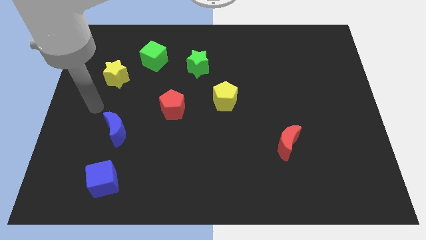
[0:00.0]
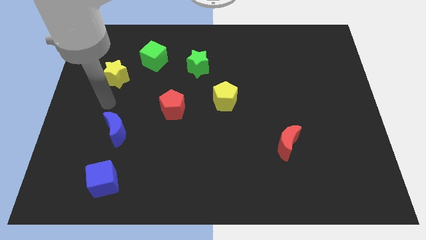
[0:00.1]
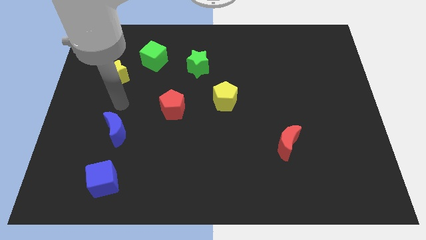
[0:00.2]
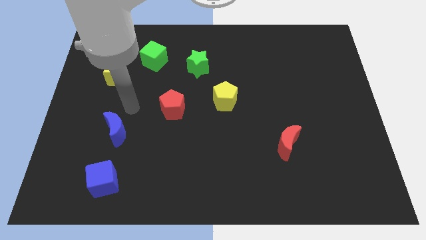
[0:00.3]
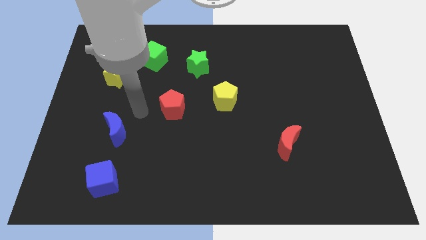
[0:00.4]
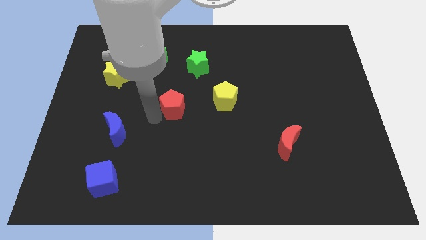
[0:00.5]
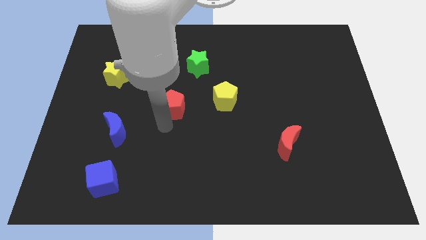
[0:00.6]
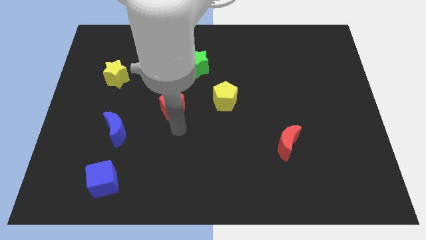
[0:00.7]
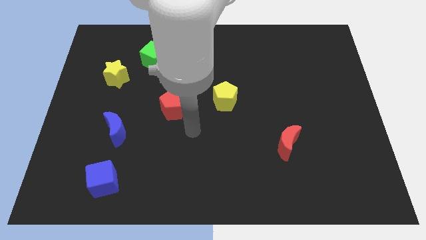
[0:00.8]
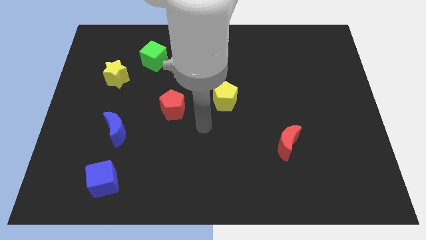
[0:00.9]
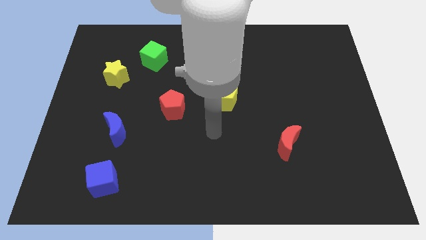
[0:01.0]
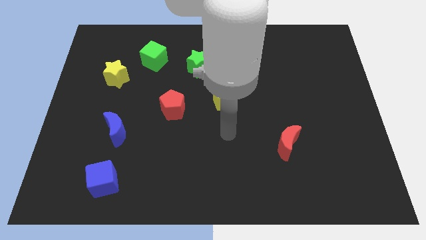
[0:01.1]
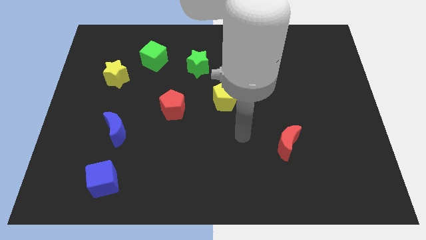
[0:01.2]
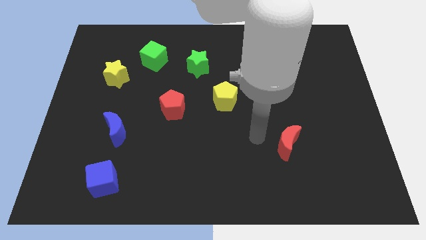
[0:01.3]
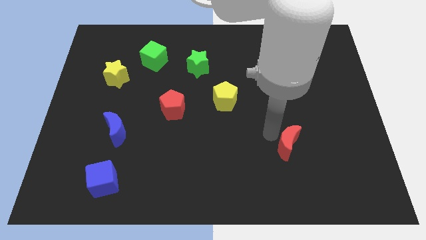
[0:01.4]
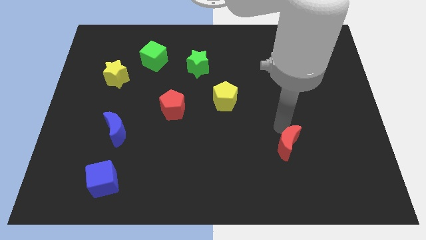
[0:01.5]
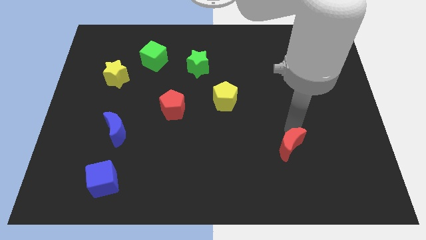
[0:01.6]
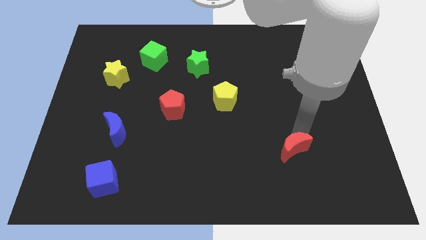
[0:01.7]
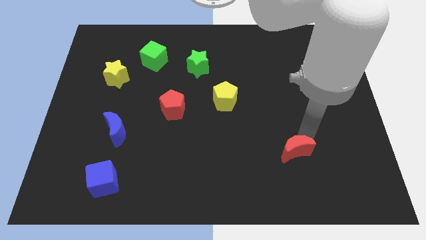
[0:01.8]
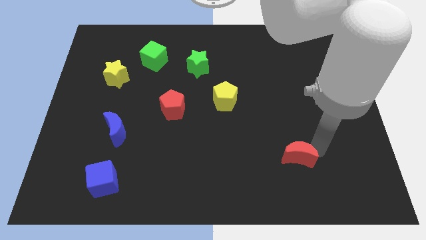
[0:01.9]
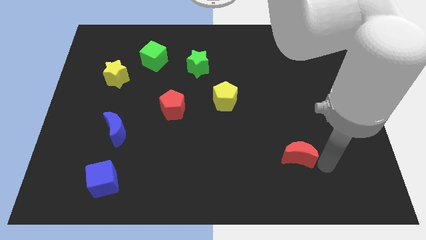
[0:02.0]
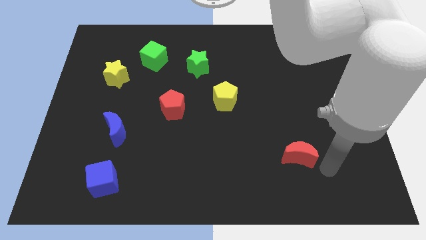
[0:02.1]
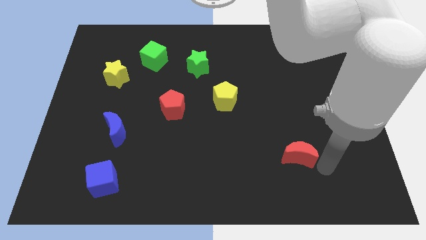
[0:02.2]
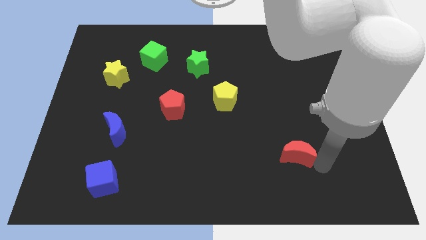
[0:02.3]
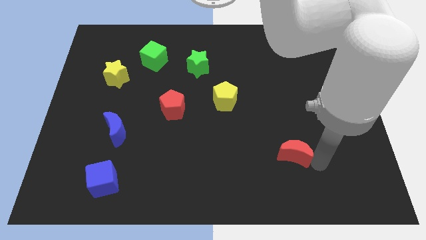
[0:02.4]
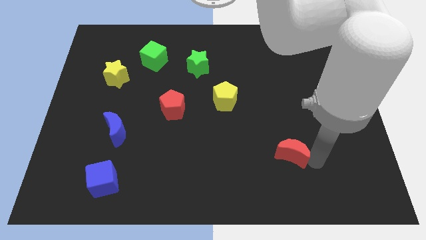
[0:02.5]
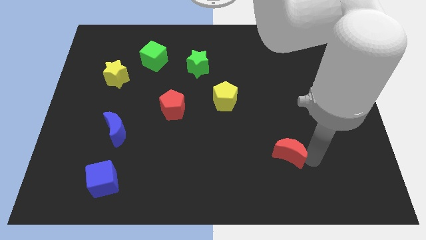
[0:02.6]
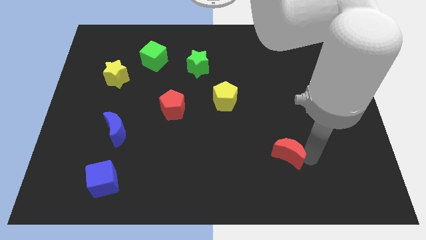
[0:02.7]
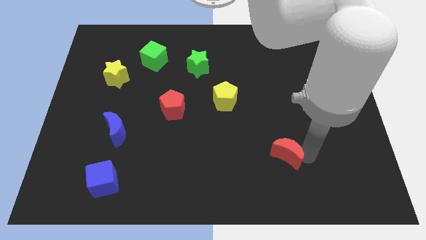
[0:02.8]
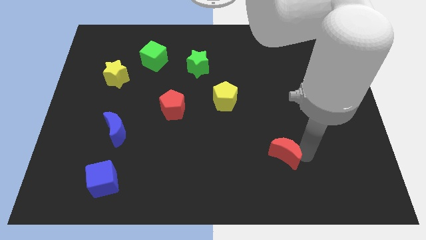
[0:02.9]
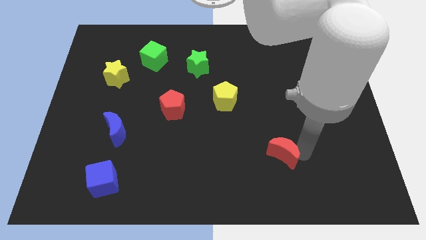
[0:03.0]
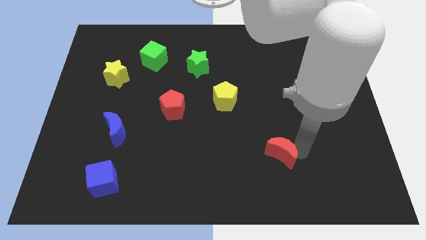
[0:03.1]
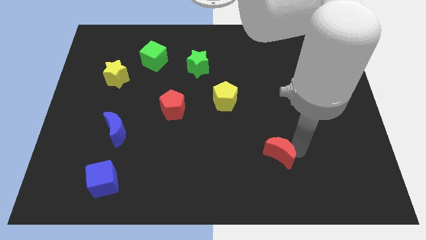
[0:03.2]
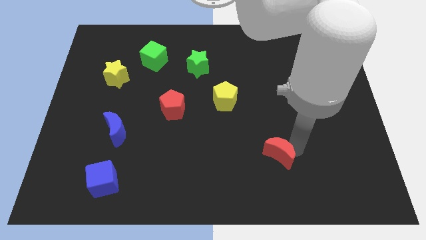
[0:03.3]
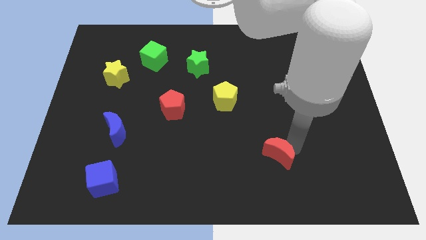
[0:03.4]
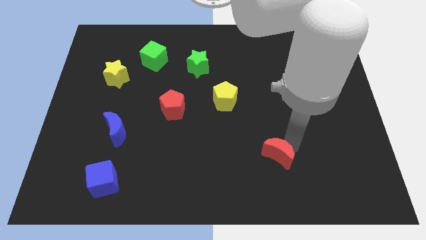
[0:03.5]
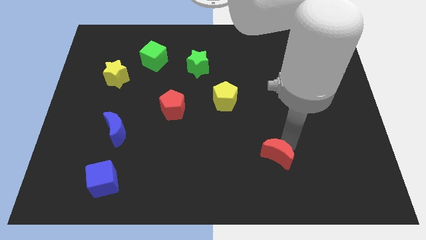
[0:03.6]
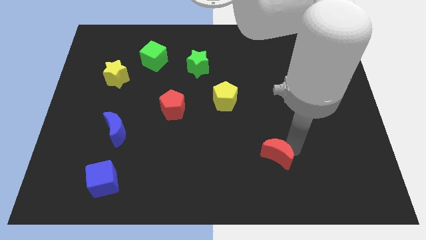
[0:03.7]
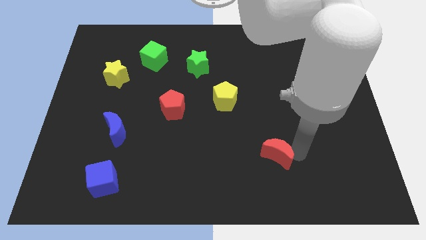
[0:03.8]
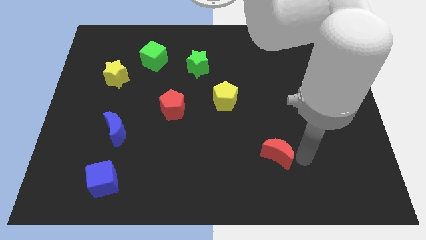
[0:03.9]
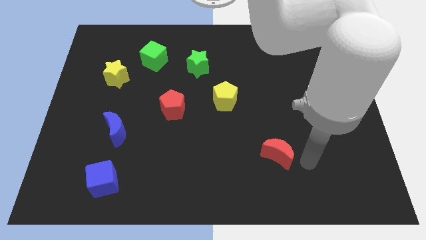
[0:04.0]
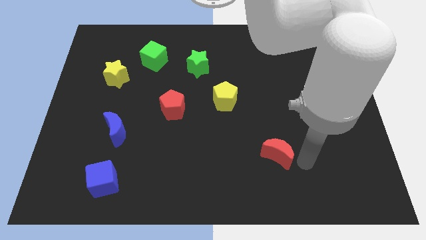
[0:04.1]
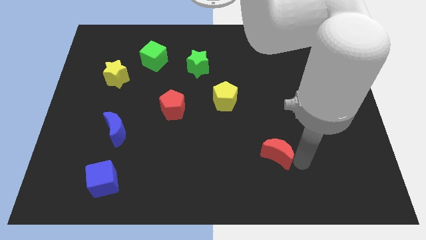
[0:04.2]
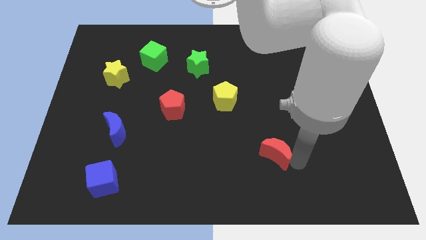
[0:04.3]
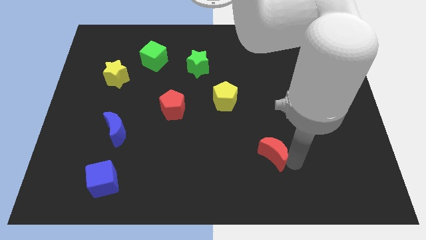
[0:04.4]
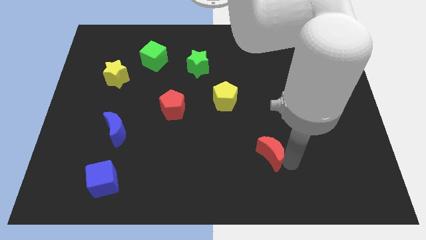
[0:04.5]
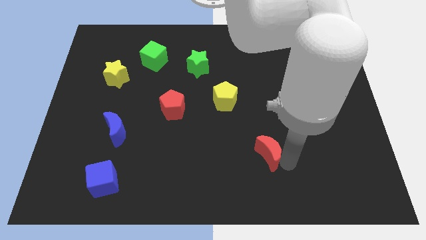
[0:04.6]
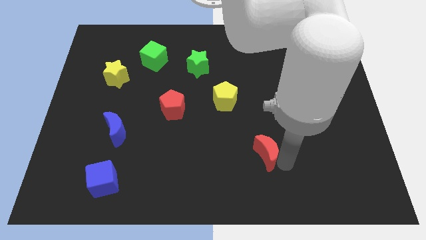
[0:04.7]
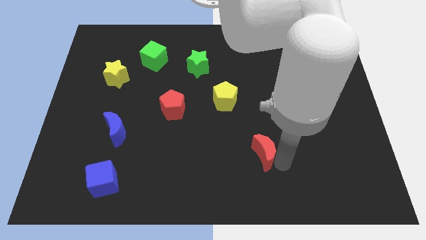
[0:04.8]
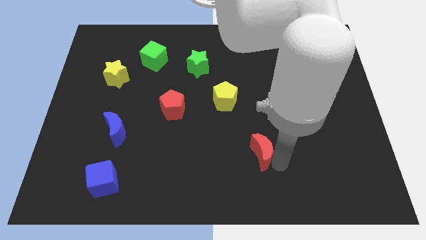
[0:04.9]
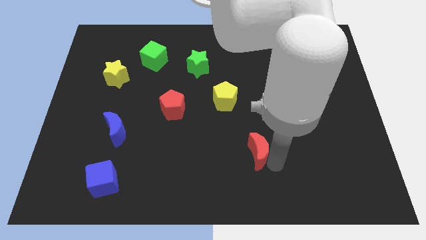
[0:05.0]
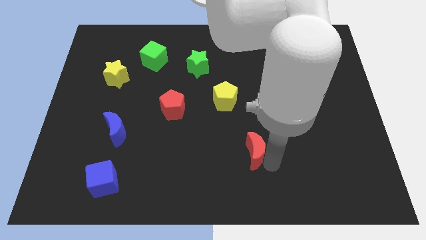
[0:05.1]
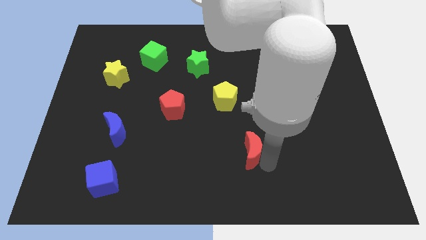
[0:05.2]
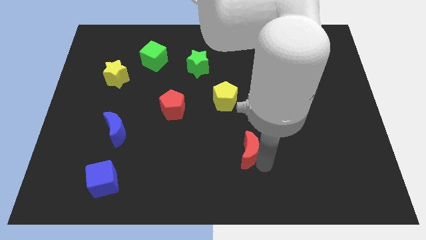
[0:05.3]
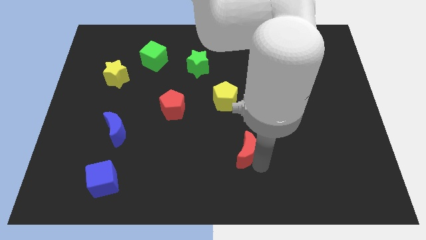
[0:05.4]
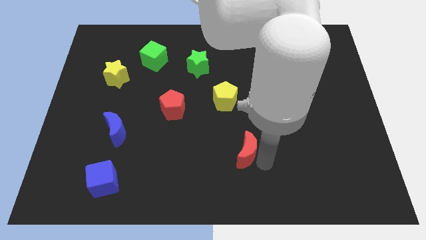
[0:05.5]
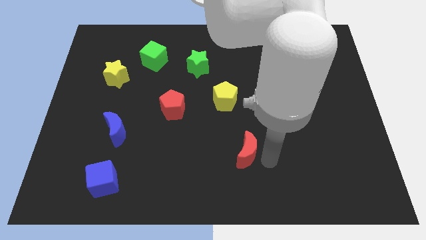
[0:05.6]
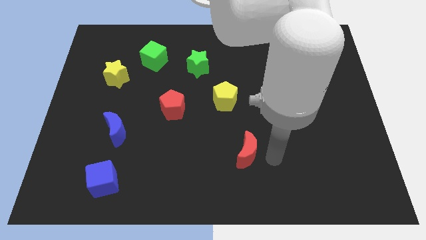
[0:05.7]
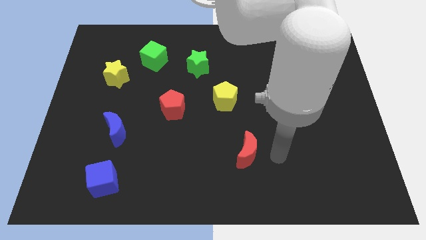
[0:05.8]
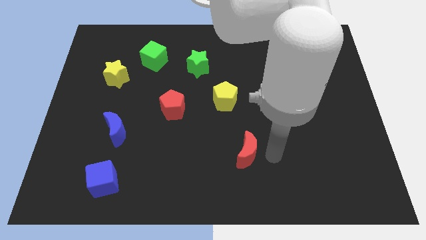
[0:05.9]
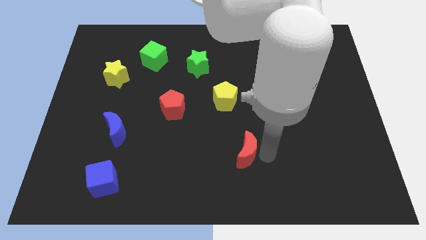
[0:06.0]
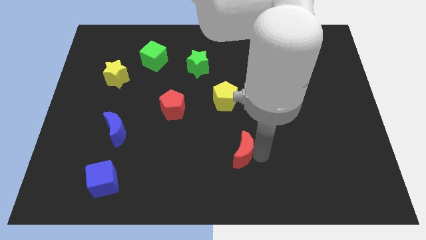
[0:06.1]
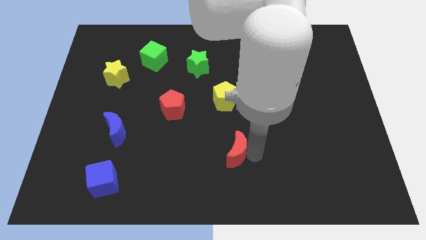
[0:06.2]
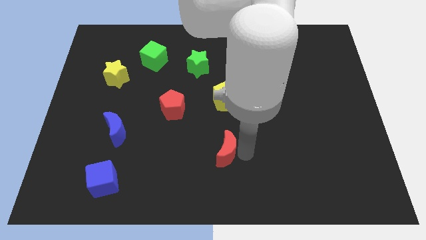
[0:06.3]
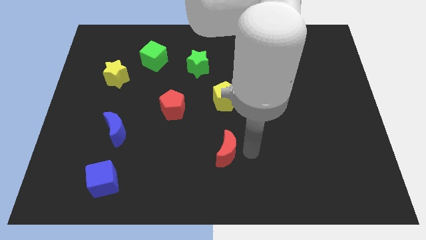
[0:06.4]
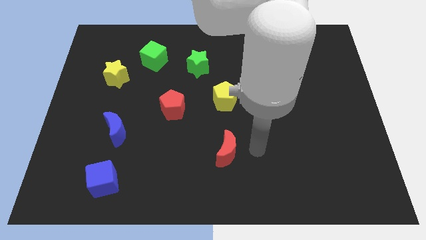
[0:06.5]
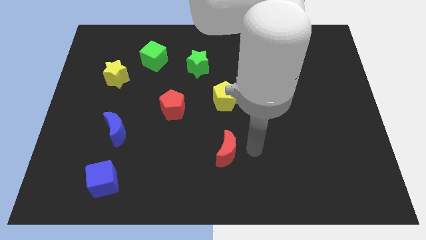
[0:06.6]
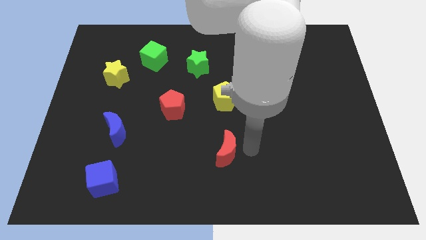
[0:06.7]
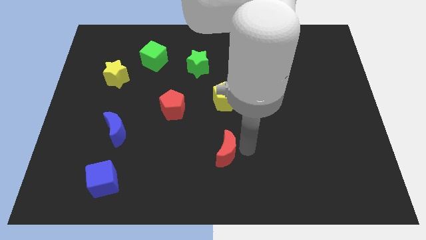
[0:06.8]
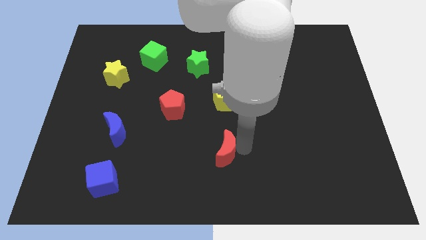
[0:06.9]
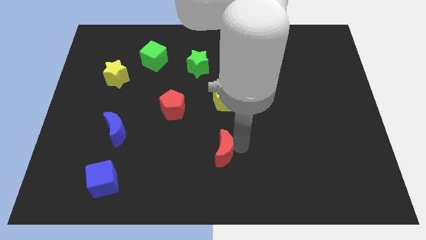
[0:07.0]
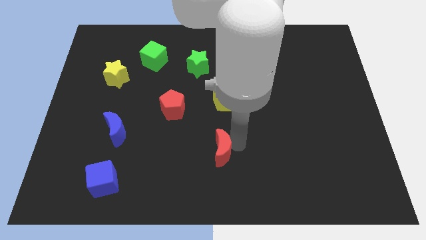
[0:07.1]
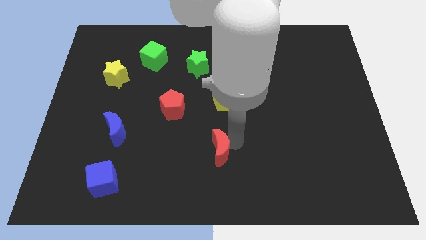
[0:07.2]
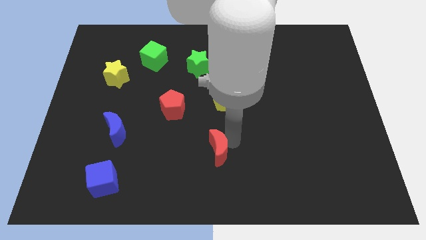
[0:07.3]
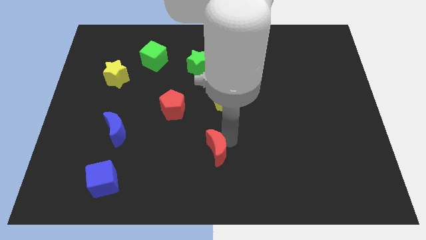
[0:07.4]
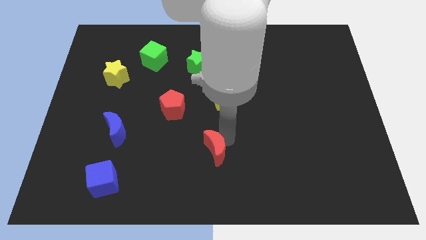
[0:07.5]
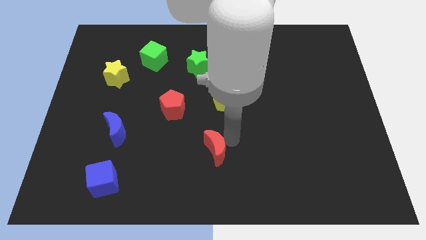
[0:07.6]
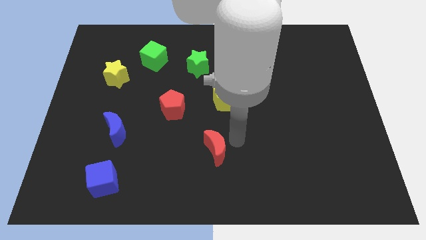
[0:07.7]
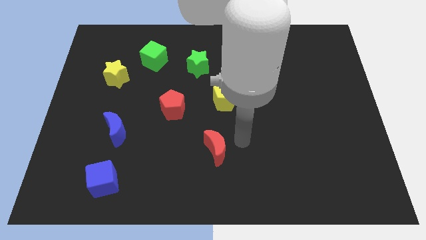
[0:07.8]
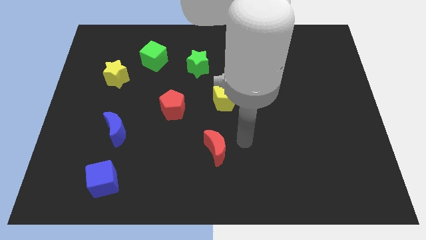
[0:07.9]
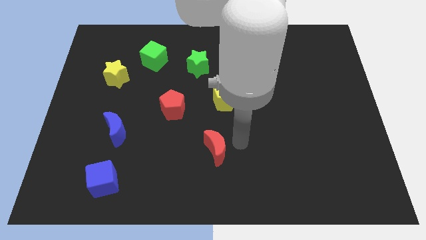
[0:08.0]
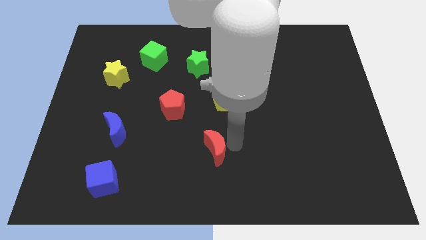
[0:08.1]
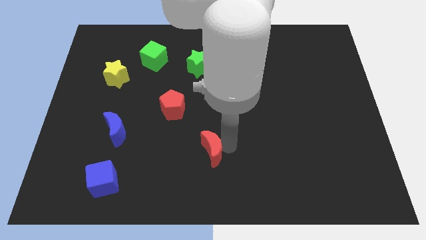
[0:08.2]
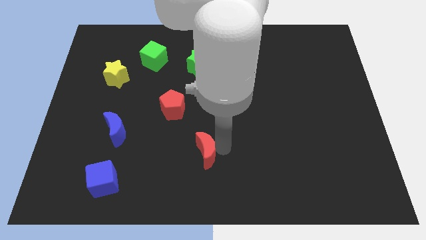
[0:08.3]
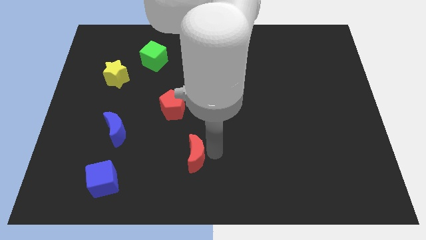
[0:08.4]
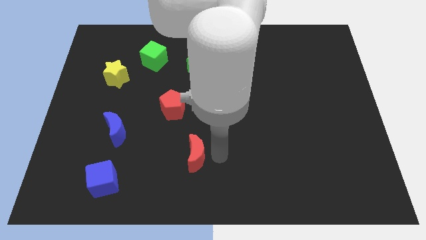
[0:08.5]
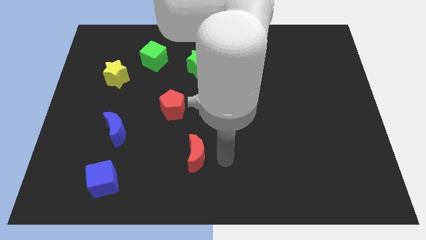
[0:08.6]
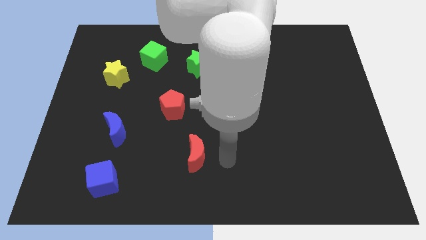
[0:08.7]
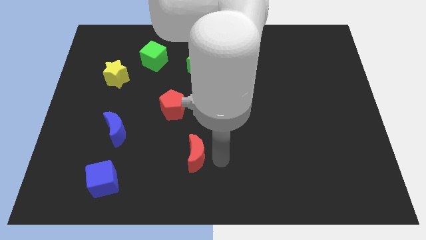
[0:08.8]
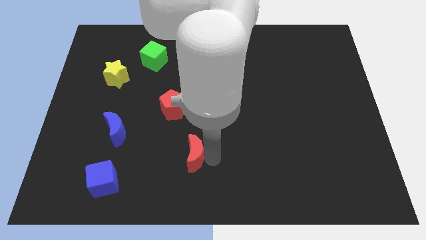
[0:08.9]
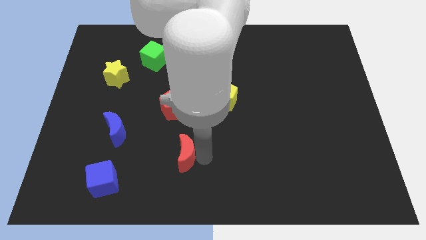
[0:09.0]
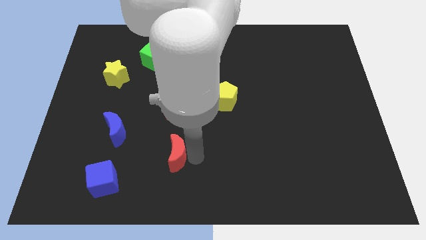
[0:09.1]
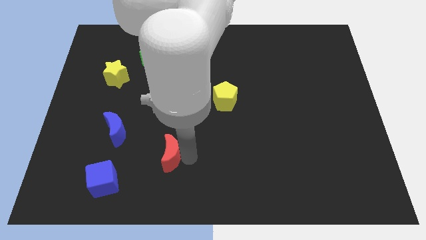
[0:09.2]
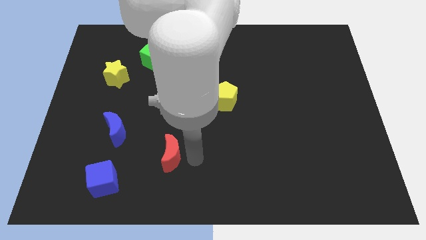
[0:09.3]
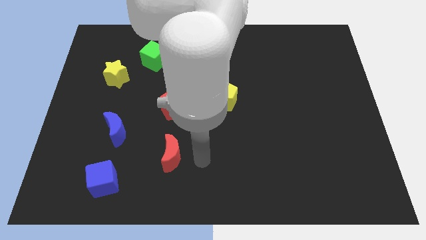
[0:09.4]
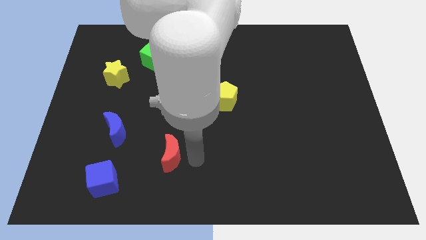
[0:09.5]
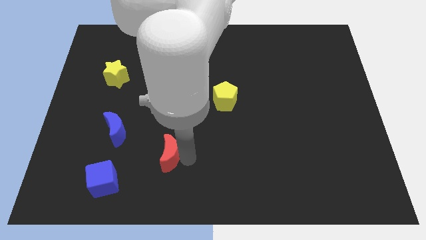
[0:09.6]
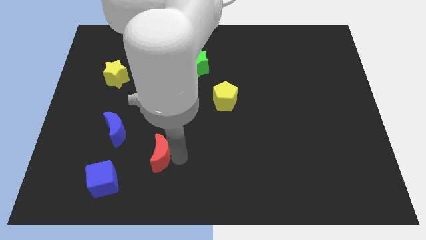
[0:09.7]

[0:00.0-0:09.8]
slide the red moon to the bottom right side of the blue moon
